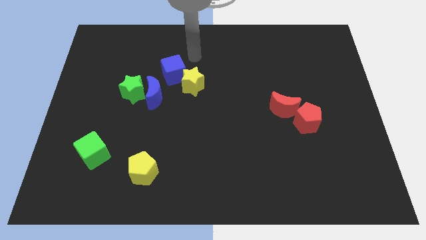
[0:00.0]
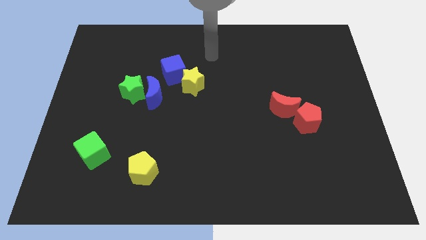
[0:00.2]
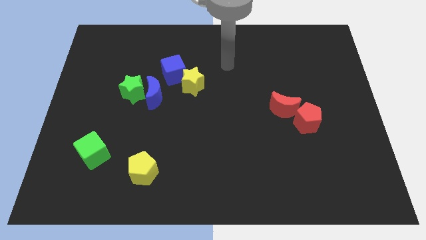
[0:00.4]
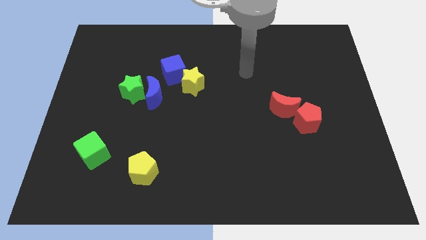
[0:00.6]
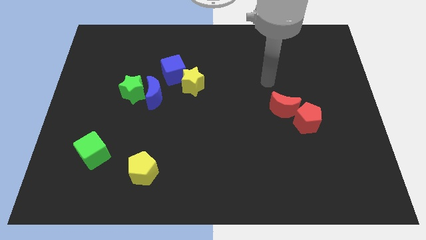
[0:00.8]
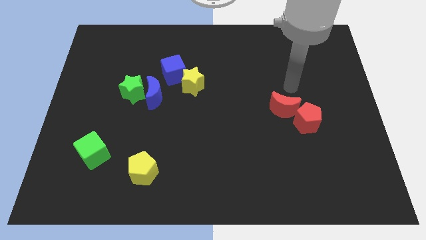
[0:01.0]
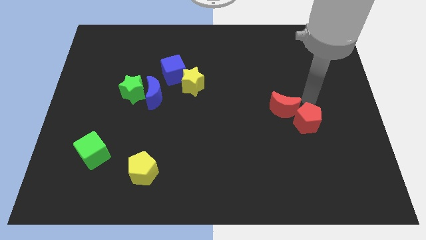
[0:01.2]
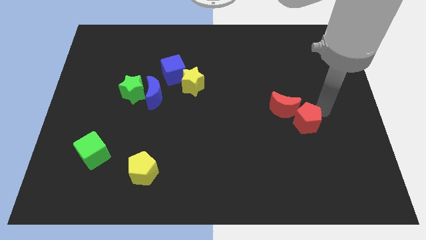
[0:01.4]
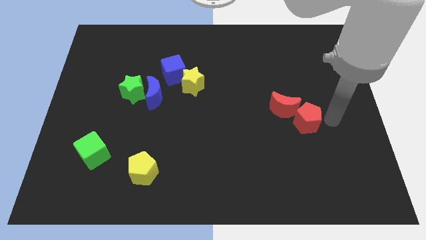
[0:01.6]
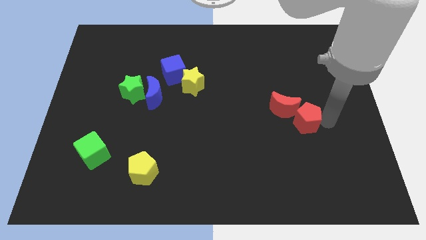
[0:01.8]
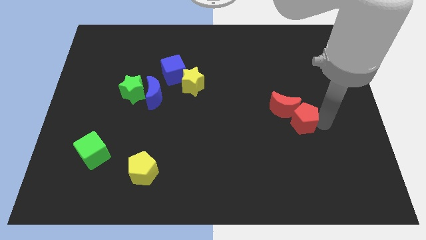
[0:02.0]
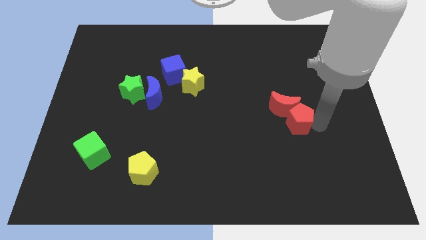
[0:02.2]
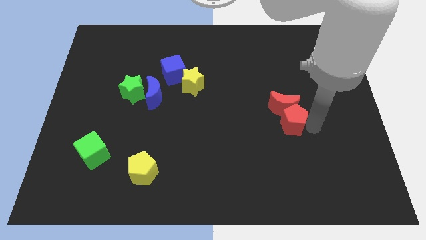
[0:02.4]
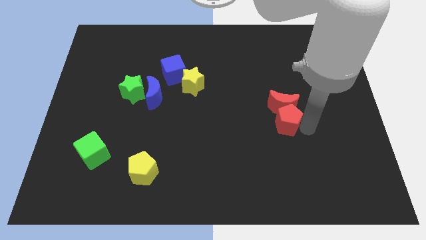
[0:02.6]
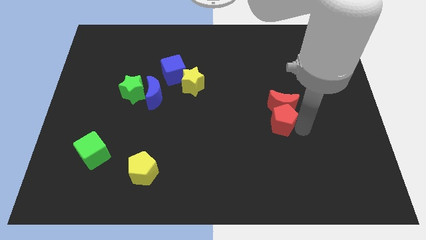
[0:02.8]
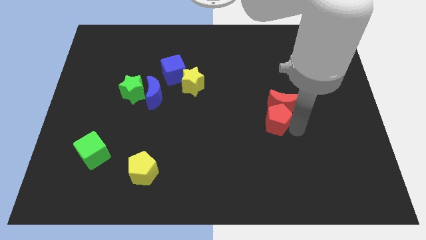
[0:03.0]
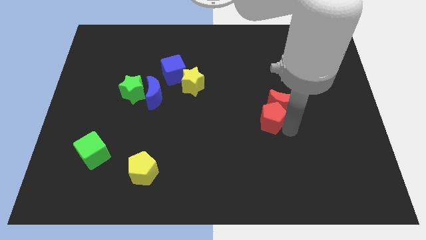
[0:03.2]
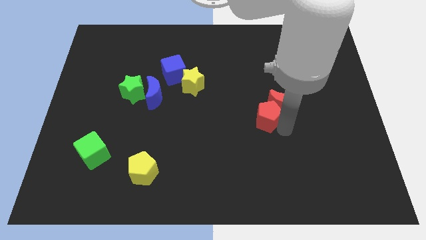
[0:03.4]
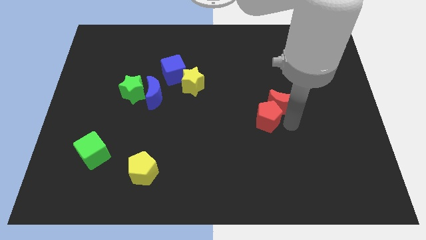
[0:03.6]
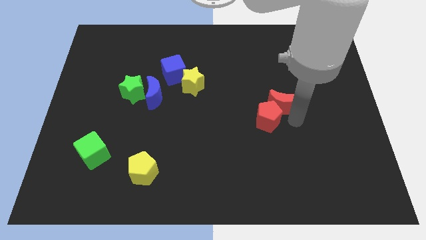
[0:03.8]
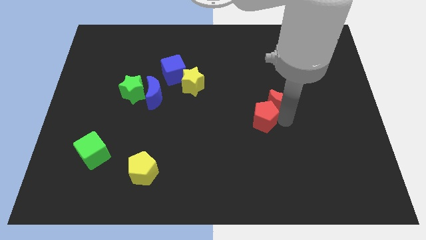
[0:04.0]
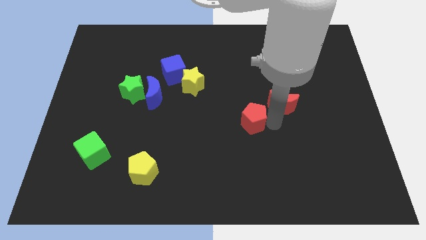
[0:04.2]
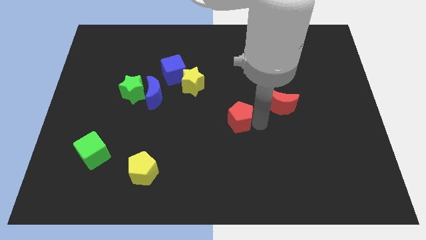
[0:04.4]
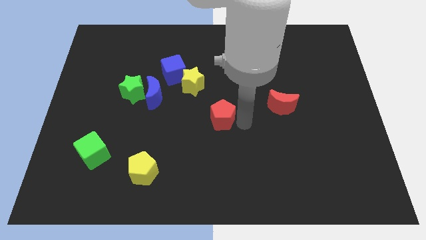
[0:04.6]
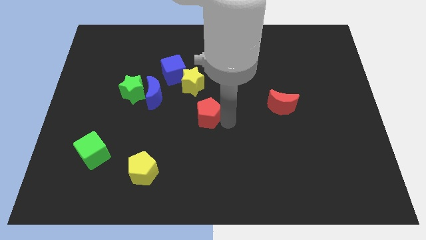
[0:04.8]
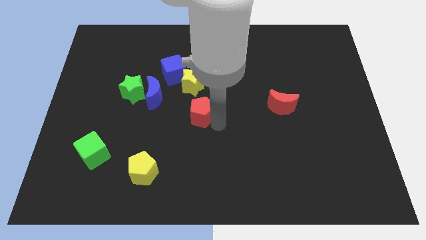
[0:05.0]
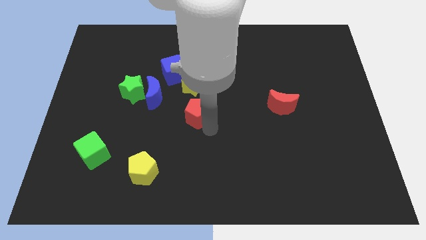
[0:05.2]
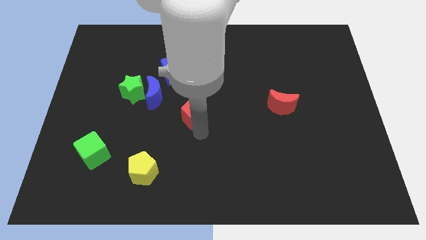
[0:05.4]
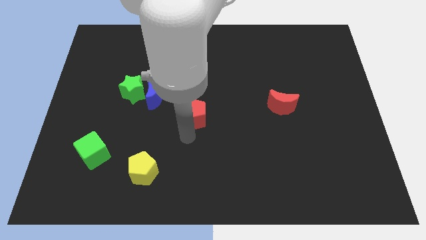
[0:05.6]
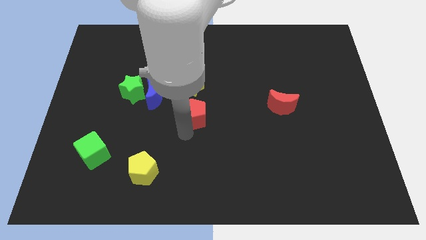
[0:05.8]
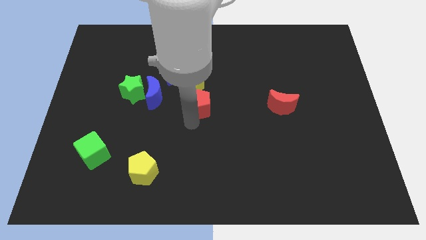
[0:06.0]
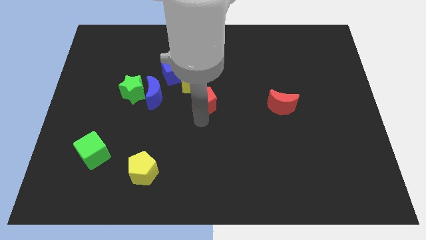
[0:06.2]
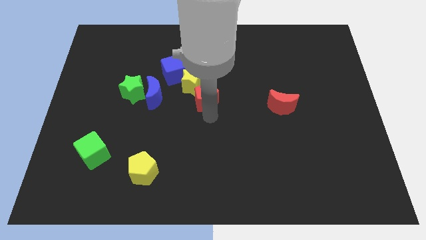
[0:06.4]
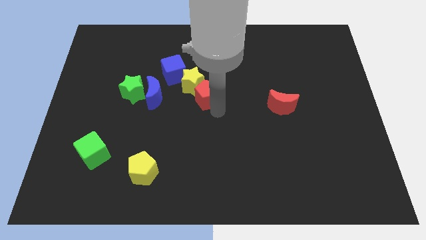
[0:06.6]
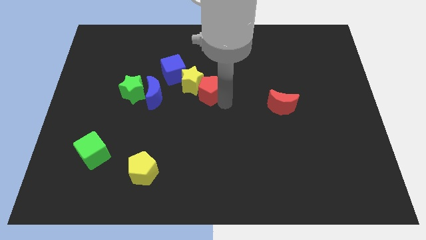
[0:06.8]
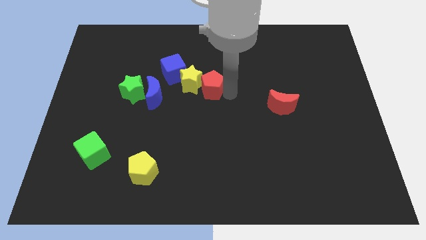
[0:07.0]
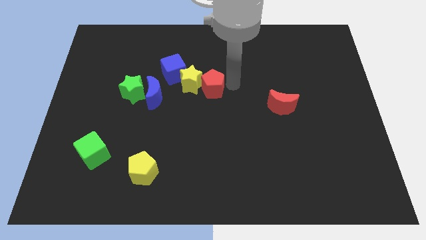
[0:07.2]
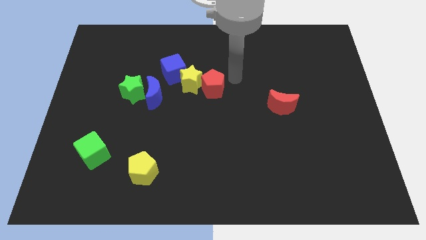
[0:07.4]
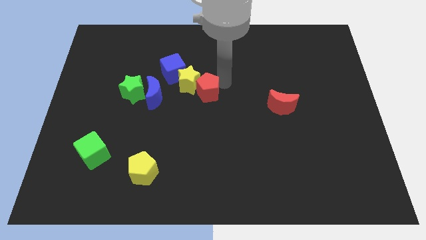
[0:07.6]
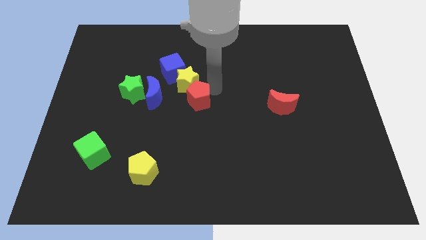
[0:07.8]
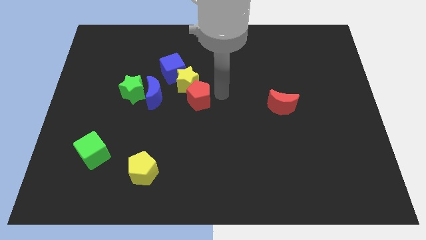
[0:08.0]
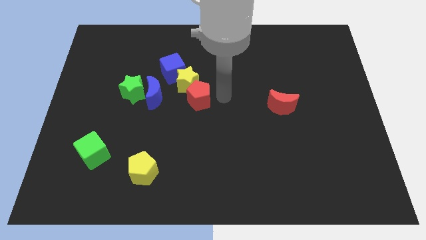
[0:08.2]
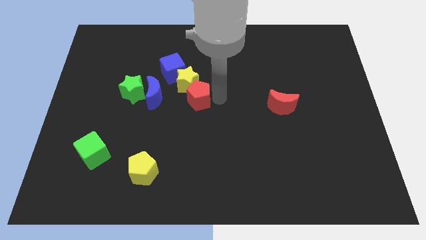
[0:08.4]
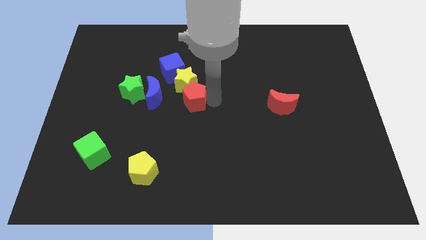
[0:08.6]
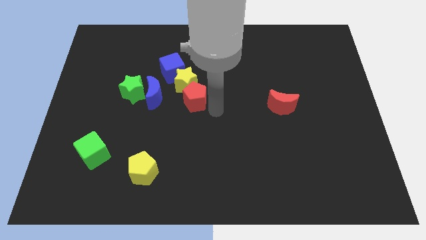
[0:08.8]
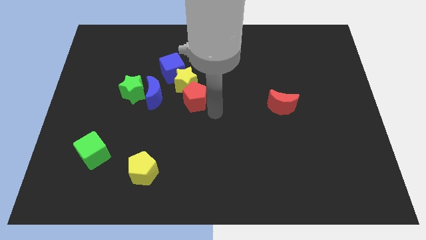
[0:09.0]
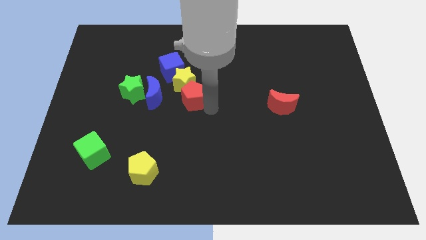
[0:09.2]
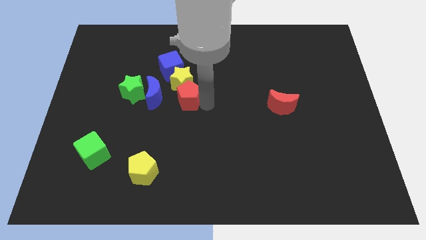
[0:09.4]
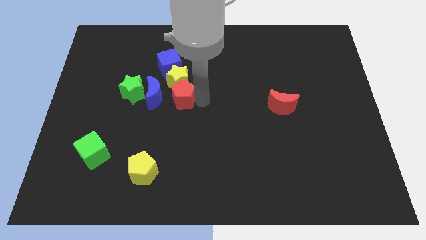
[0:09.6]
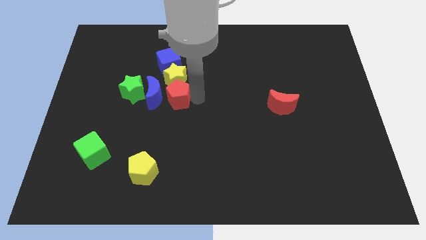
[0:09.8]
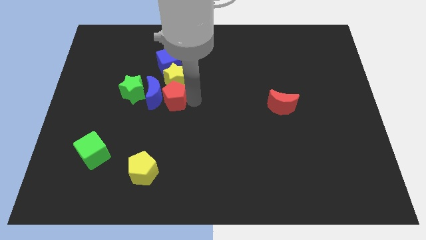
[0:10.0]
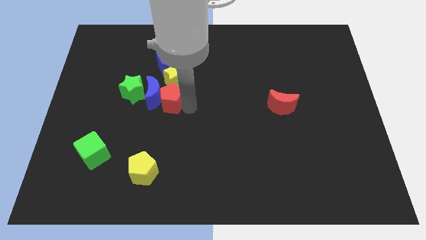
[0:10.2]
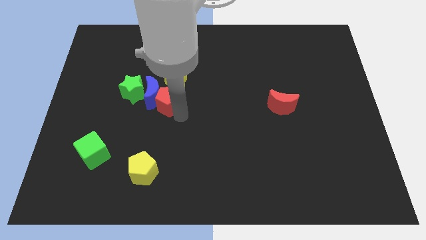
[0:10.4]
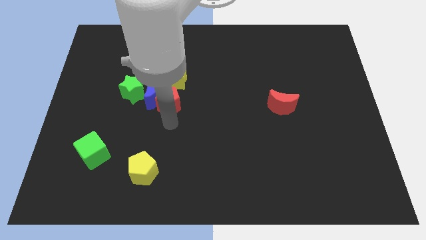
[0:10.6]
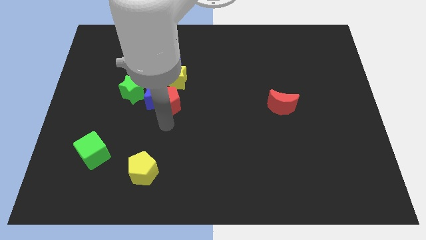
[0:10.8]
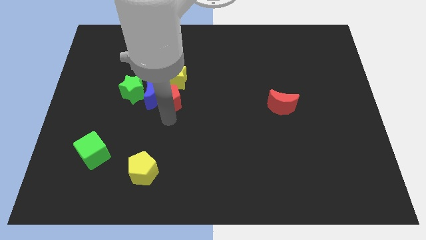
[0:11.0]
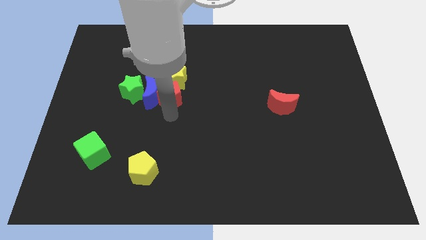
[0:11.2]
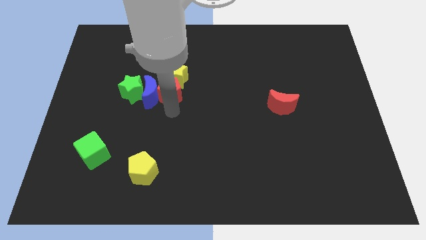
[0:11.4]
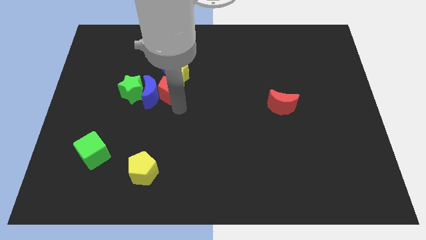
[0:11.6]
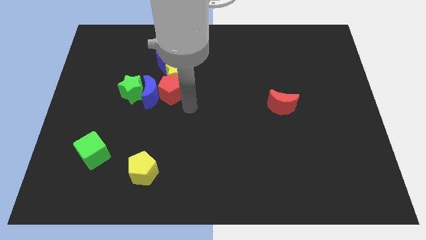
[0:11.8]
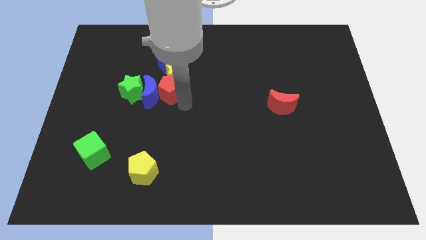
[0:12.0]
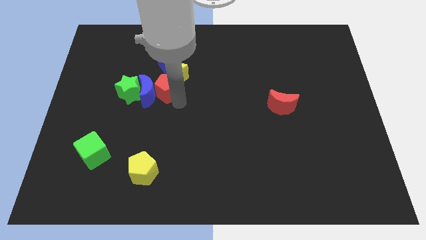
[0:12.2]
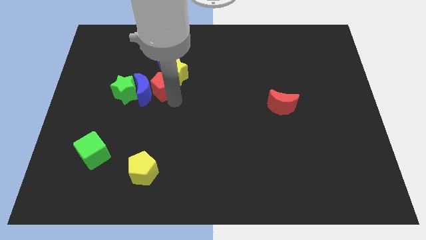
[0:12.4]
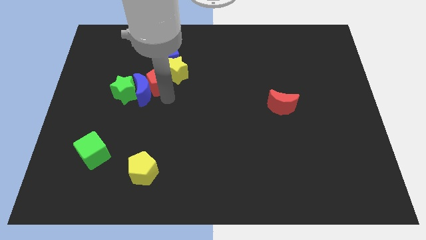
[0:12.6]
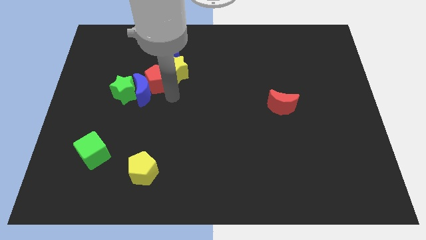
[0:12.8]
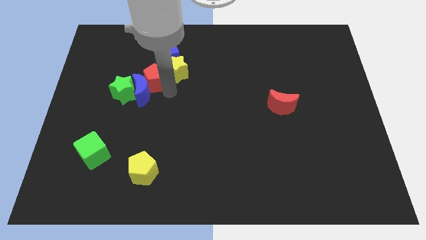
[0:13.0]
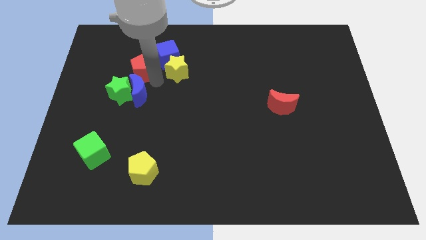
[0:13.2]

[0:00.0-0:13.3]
move the red pentagon just left of the blue cube

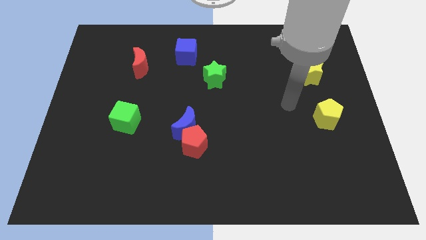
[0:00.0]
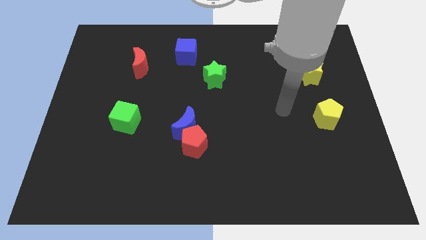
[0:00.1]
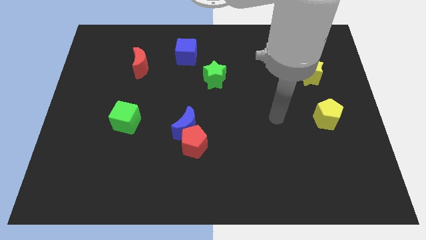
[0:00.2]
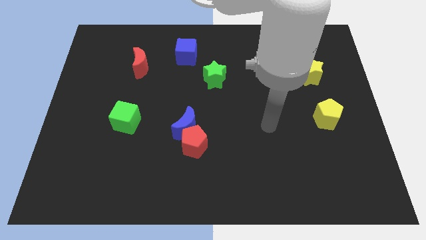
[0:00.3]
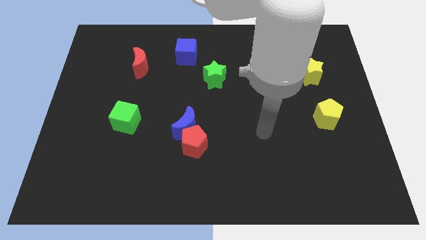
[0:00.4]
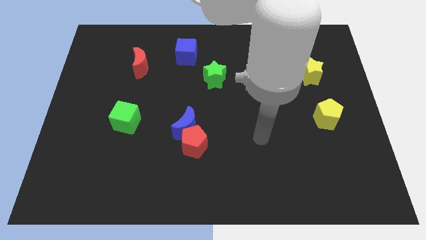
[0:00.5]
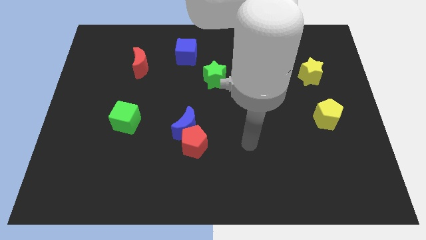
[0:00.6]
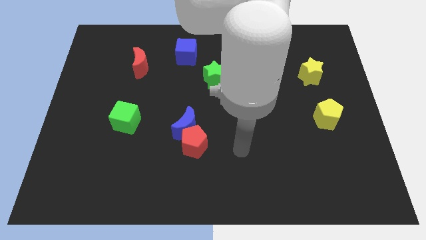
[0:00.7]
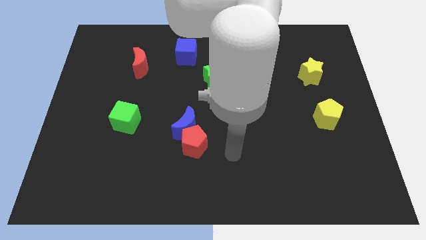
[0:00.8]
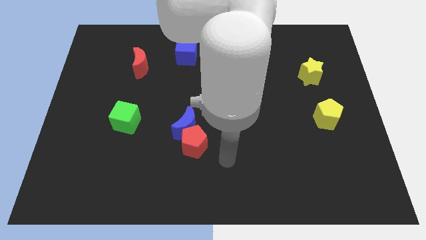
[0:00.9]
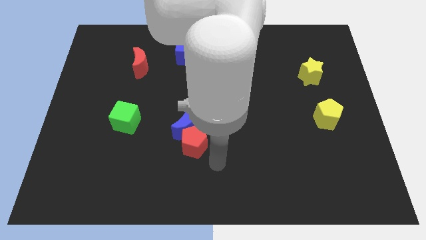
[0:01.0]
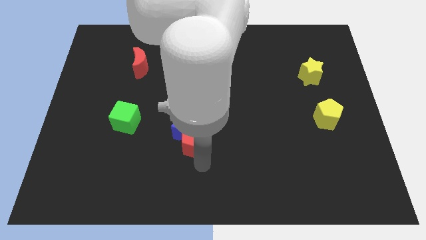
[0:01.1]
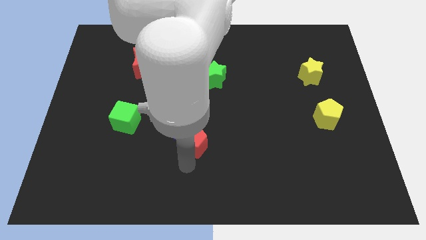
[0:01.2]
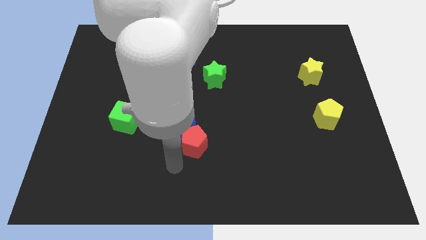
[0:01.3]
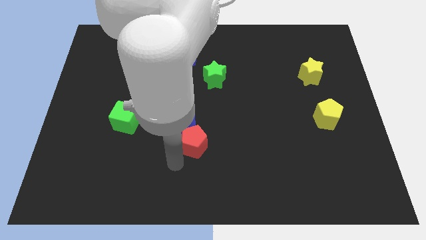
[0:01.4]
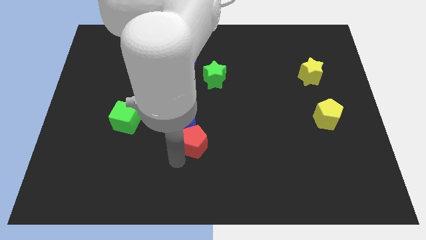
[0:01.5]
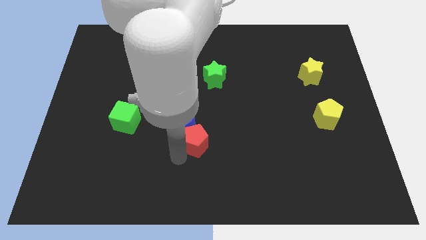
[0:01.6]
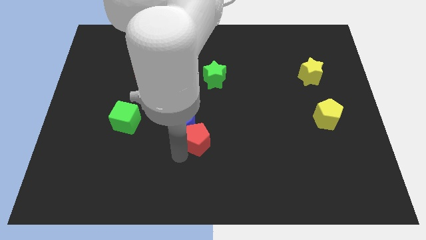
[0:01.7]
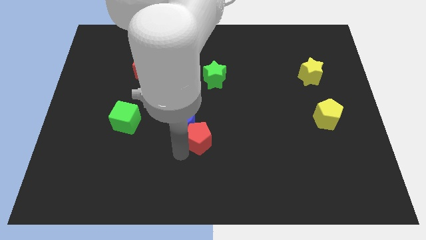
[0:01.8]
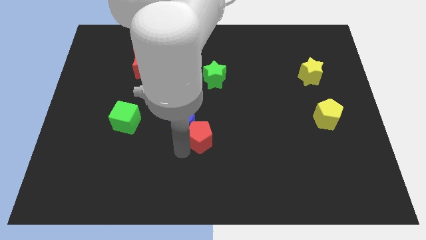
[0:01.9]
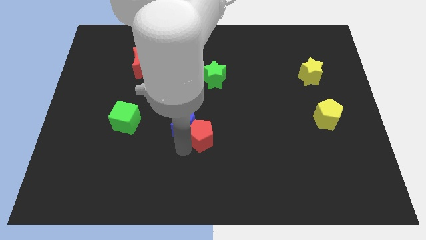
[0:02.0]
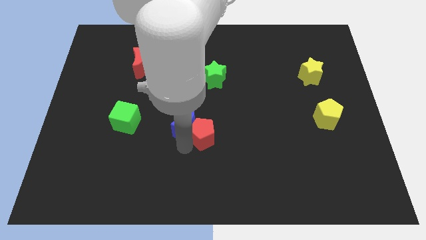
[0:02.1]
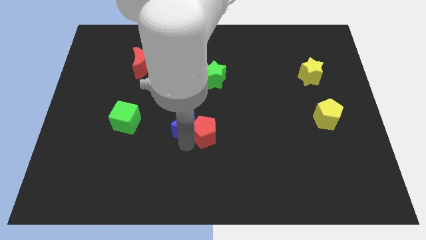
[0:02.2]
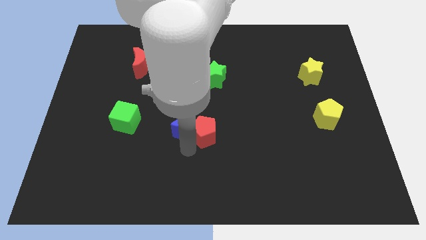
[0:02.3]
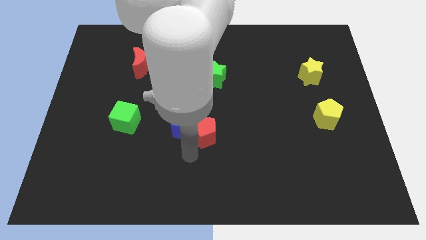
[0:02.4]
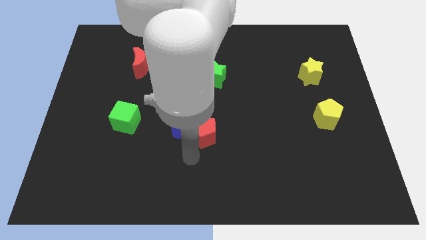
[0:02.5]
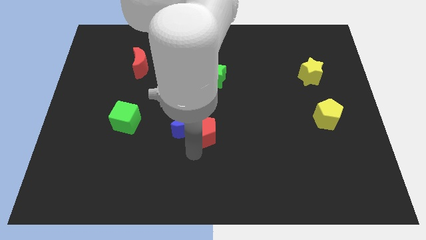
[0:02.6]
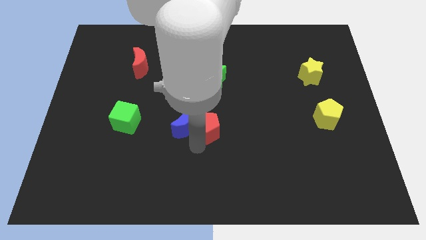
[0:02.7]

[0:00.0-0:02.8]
move the red pentagon below the green star
